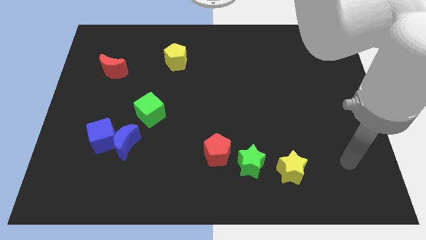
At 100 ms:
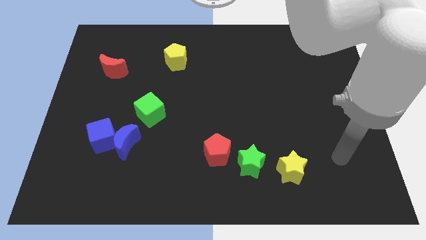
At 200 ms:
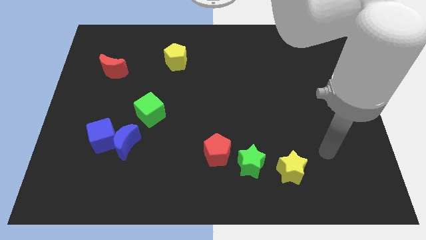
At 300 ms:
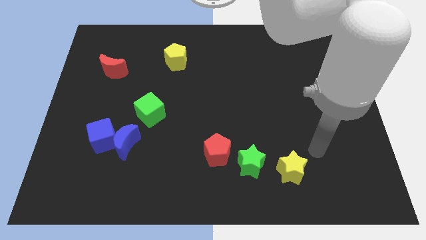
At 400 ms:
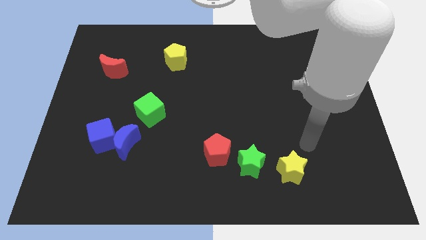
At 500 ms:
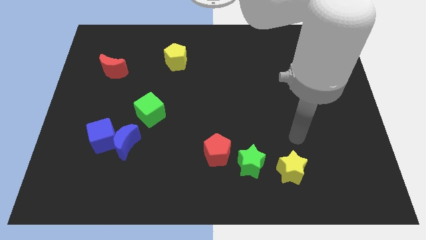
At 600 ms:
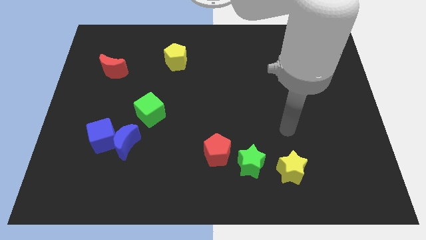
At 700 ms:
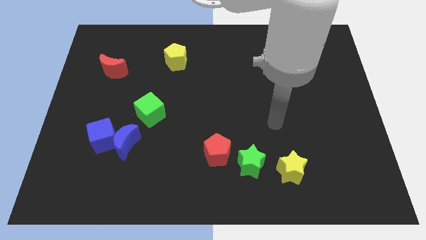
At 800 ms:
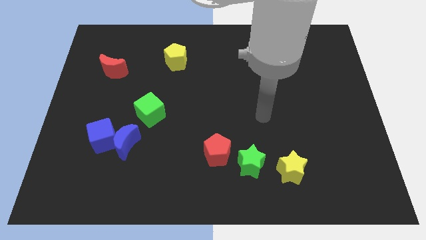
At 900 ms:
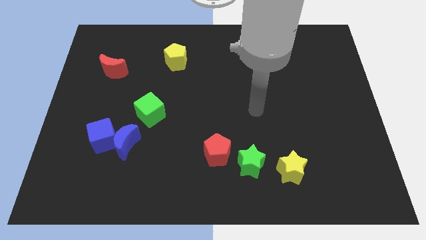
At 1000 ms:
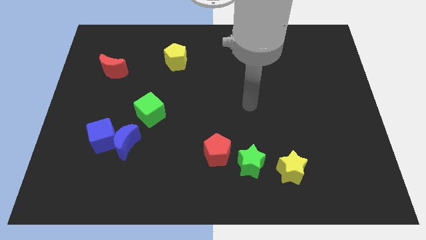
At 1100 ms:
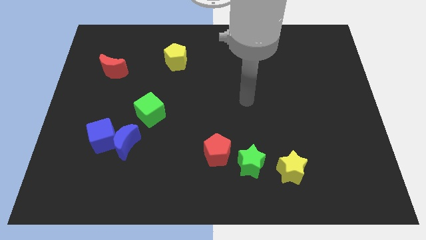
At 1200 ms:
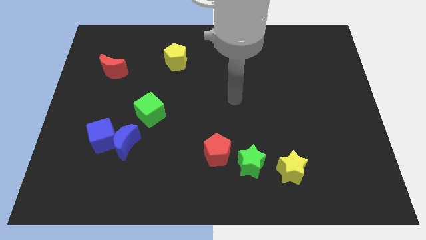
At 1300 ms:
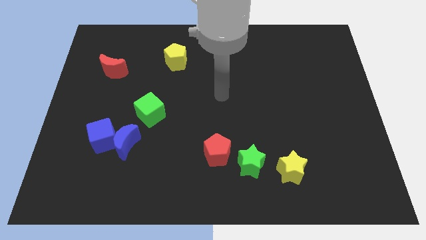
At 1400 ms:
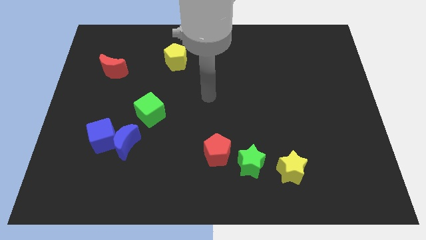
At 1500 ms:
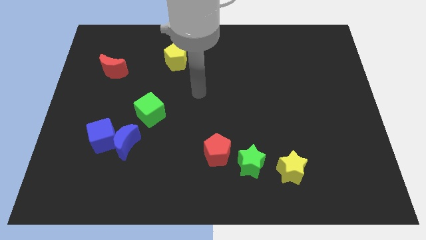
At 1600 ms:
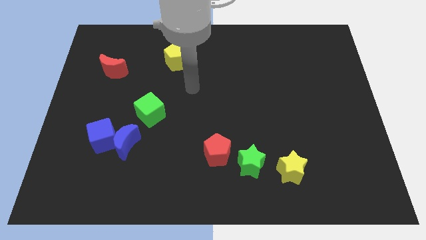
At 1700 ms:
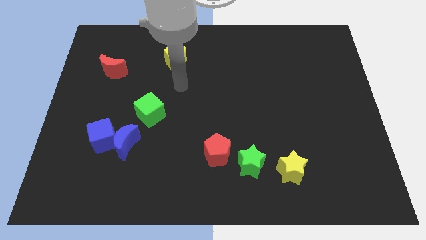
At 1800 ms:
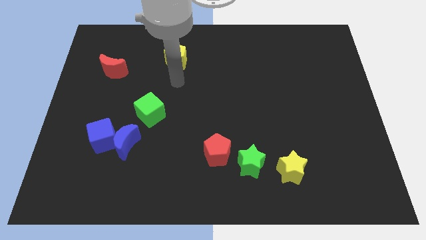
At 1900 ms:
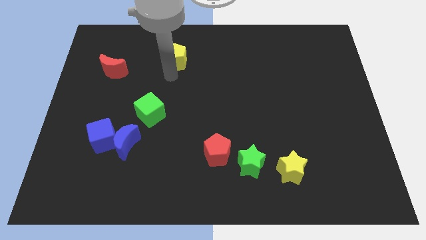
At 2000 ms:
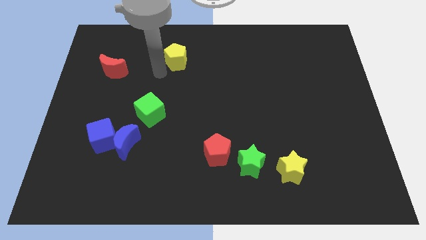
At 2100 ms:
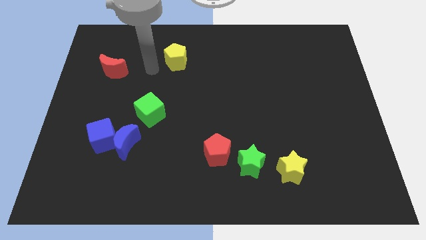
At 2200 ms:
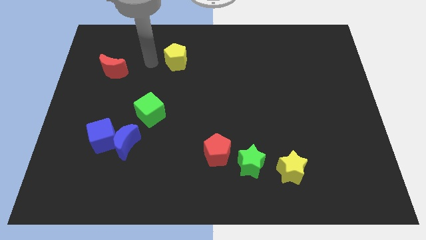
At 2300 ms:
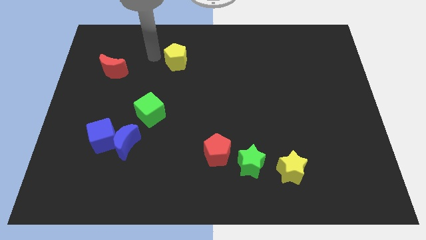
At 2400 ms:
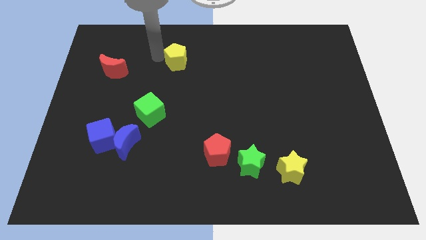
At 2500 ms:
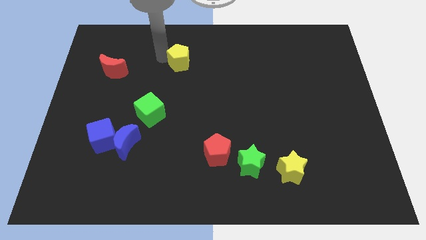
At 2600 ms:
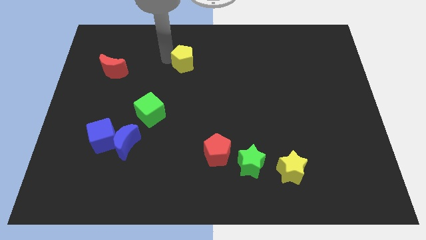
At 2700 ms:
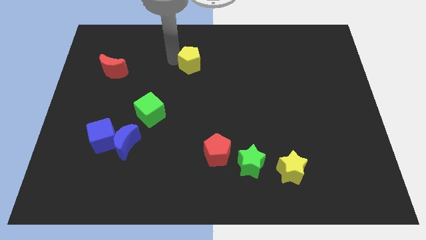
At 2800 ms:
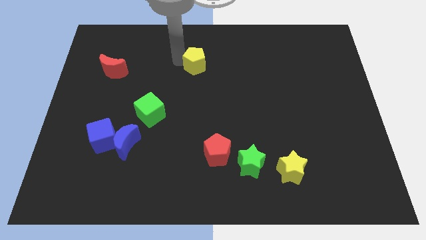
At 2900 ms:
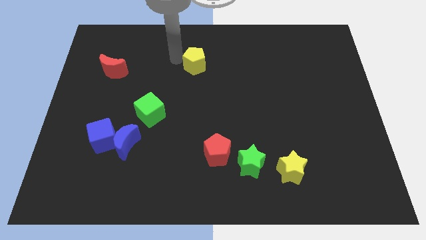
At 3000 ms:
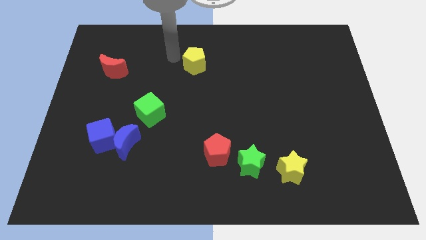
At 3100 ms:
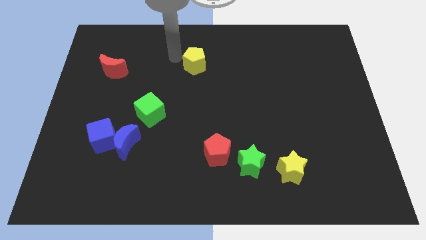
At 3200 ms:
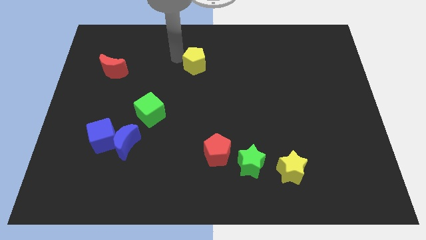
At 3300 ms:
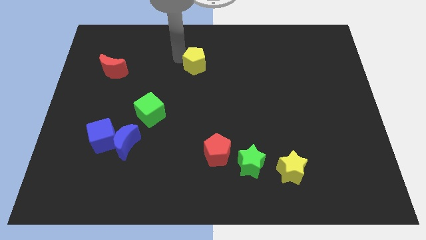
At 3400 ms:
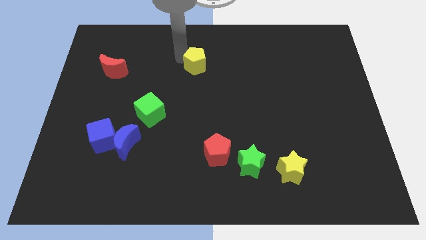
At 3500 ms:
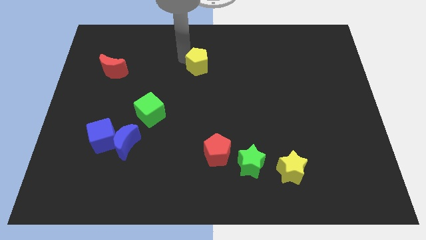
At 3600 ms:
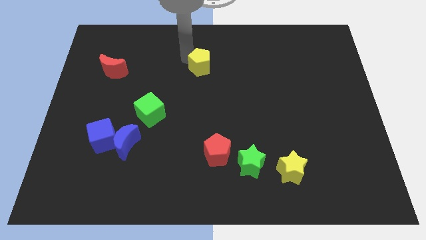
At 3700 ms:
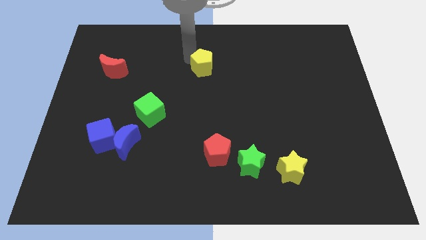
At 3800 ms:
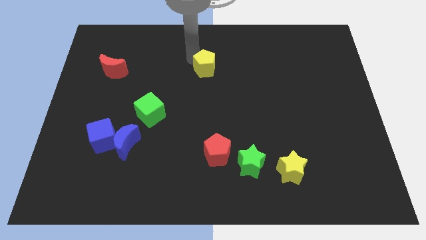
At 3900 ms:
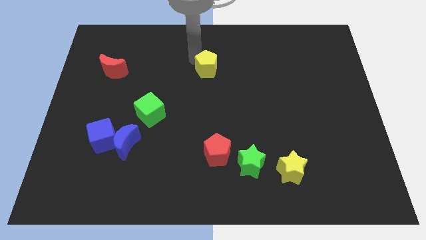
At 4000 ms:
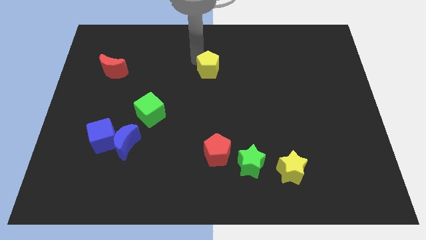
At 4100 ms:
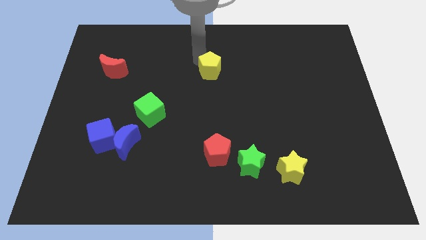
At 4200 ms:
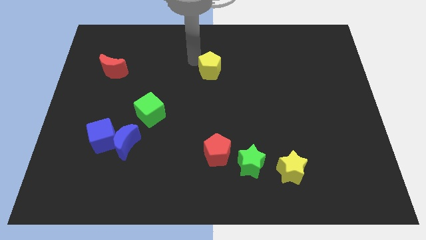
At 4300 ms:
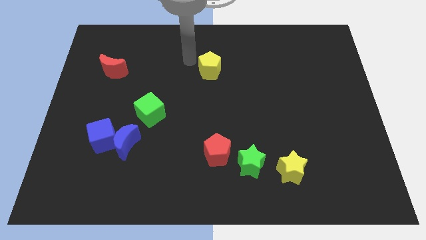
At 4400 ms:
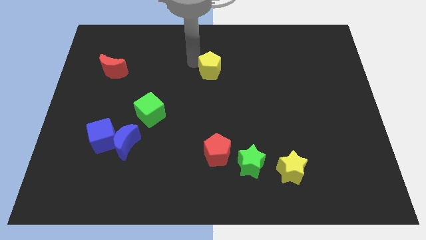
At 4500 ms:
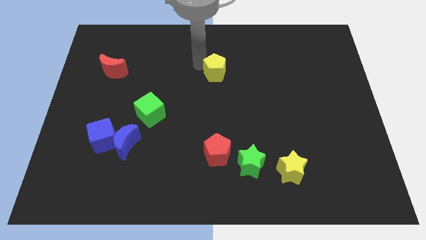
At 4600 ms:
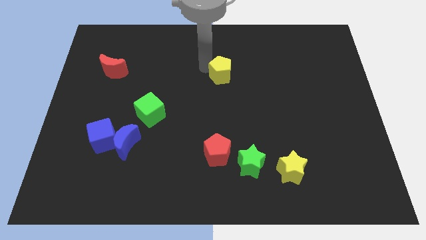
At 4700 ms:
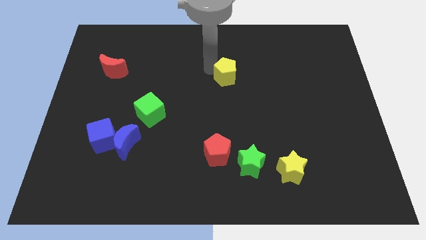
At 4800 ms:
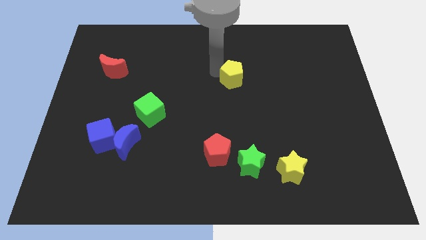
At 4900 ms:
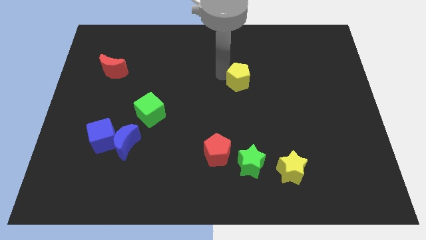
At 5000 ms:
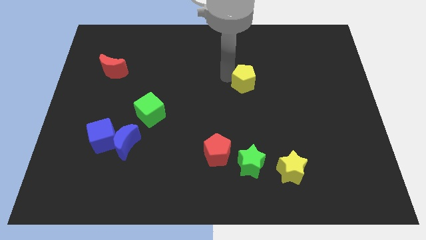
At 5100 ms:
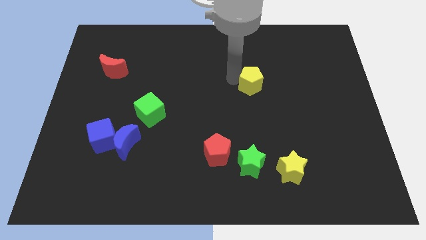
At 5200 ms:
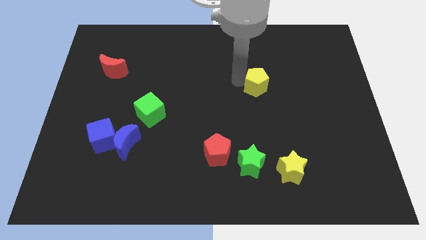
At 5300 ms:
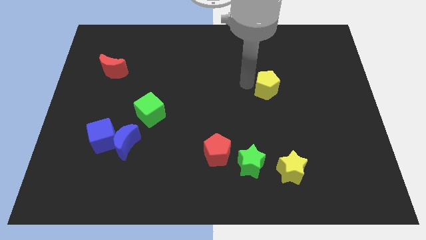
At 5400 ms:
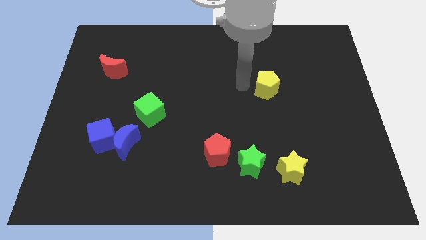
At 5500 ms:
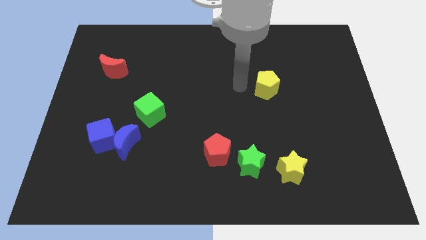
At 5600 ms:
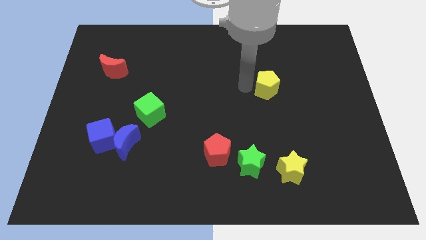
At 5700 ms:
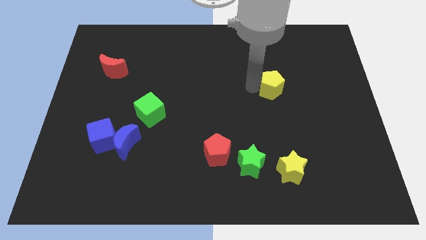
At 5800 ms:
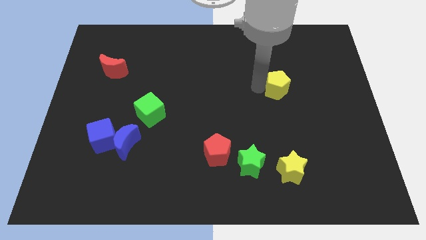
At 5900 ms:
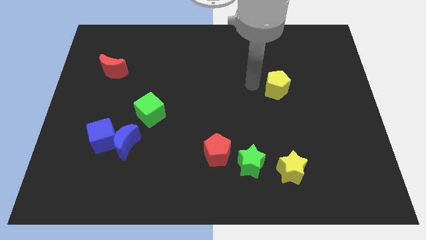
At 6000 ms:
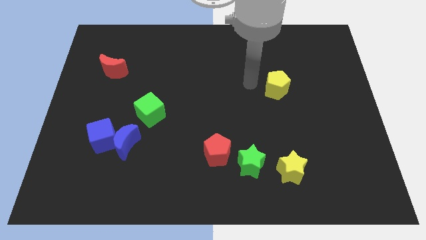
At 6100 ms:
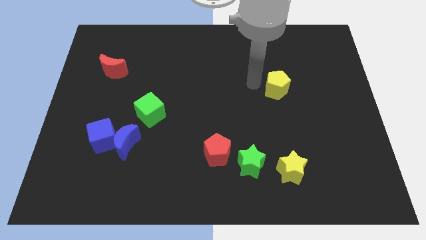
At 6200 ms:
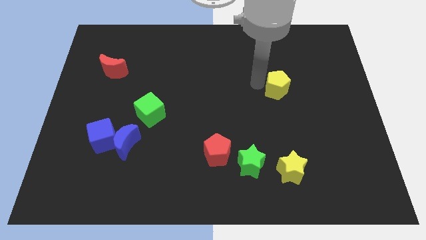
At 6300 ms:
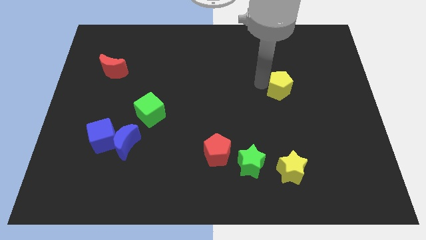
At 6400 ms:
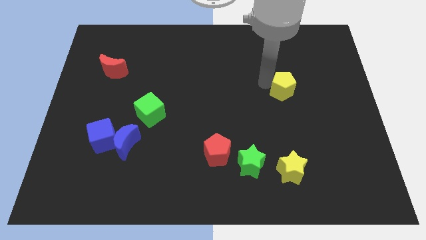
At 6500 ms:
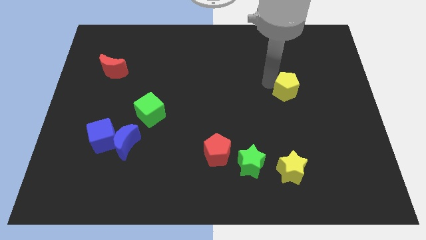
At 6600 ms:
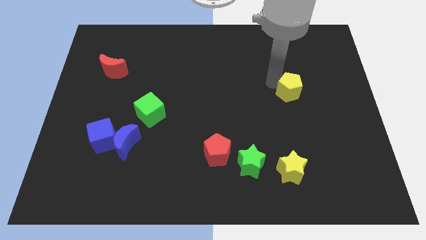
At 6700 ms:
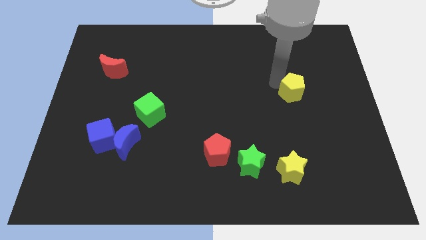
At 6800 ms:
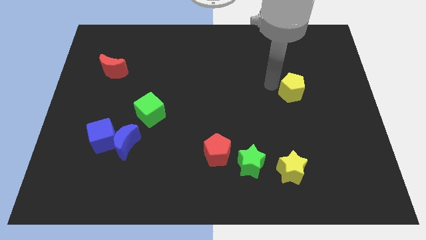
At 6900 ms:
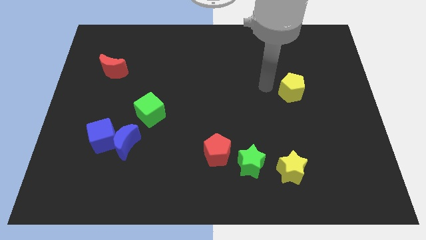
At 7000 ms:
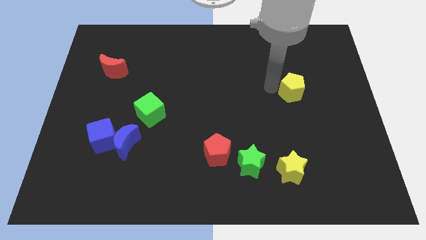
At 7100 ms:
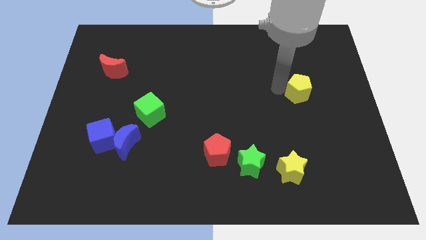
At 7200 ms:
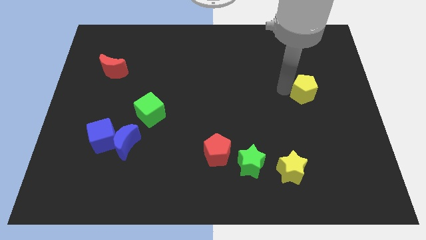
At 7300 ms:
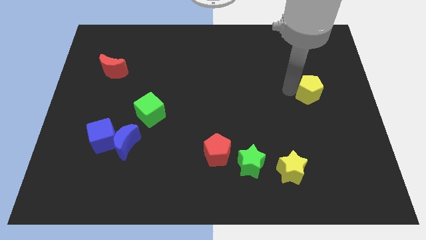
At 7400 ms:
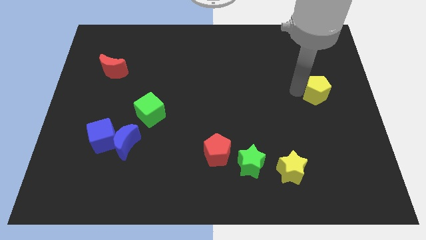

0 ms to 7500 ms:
push the yellow pentagon to the right side of the board
